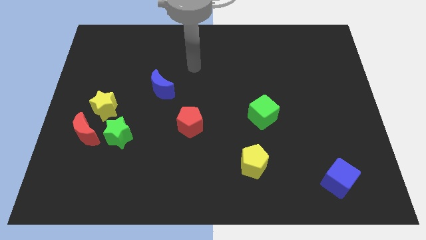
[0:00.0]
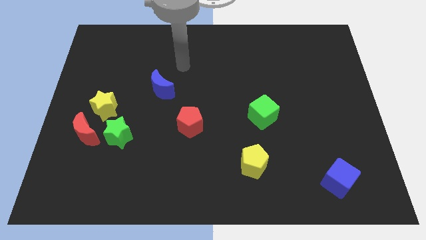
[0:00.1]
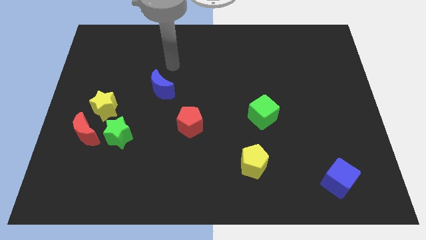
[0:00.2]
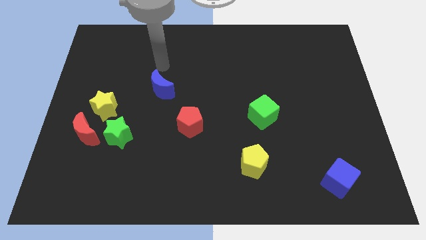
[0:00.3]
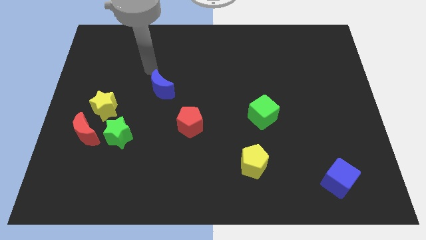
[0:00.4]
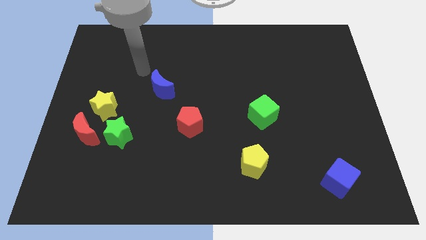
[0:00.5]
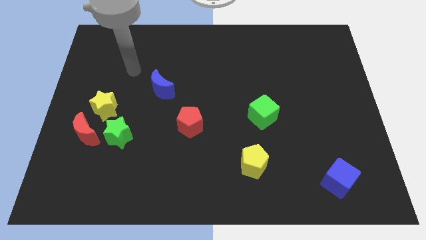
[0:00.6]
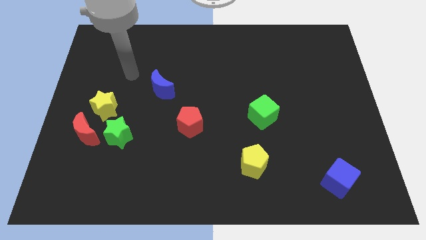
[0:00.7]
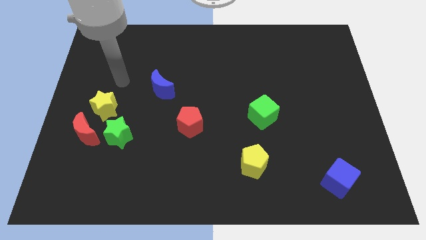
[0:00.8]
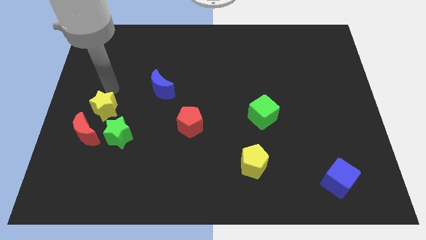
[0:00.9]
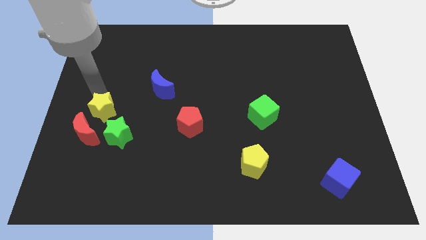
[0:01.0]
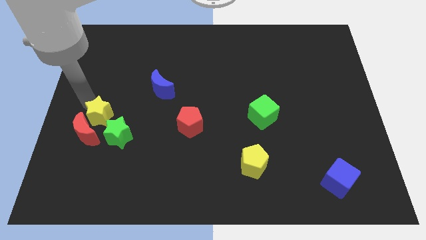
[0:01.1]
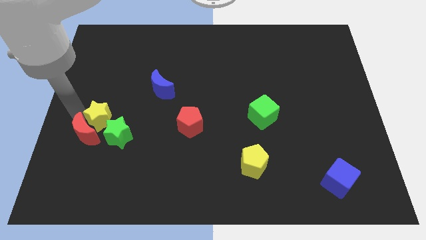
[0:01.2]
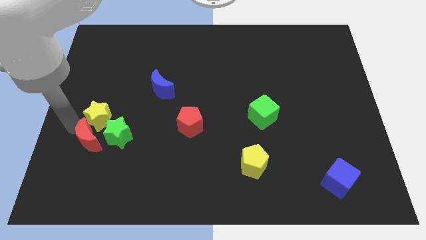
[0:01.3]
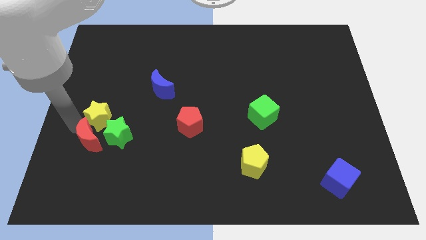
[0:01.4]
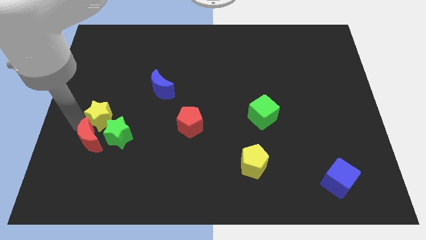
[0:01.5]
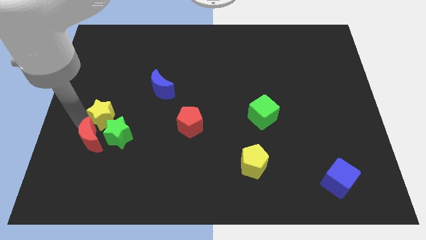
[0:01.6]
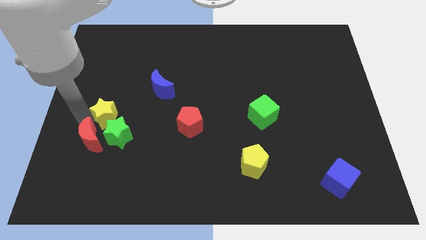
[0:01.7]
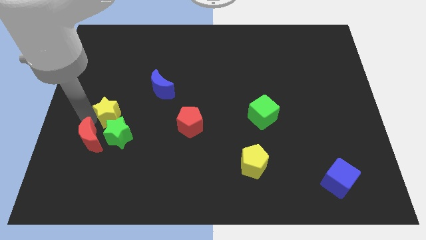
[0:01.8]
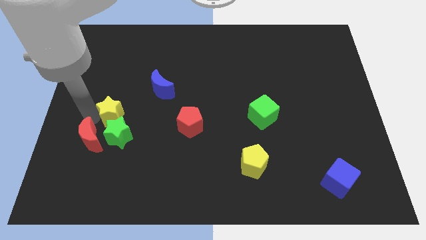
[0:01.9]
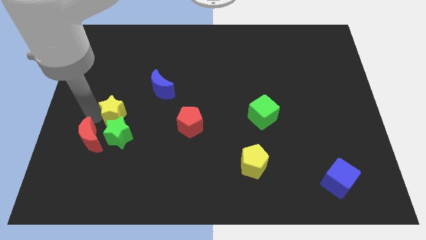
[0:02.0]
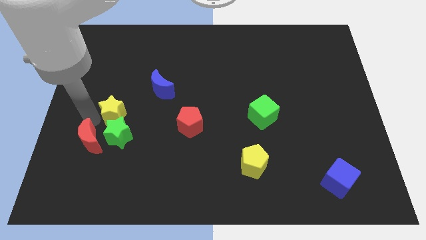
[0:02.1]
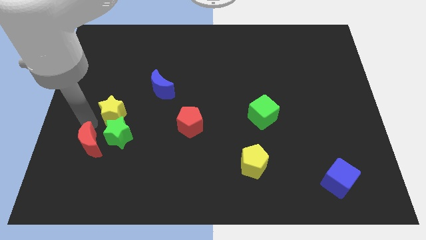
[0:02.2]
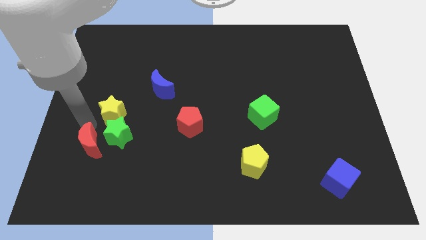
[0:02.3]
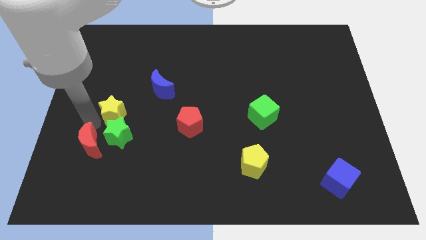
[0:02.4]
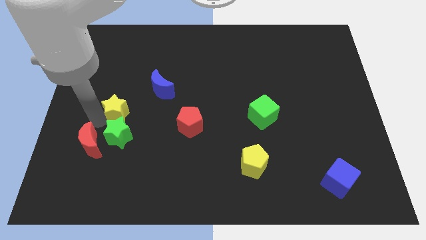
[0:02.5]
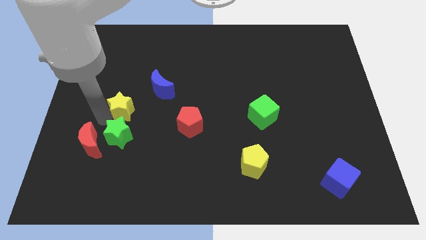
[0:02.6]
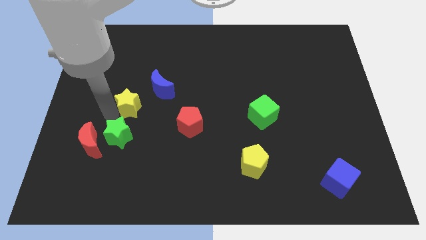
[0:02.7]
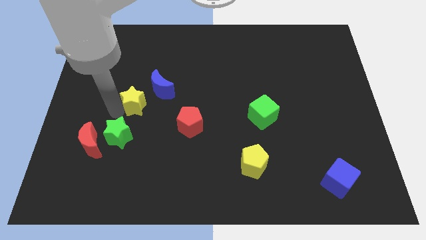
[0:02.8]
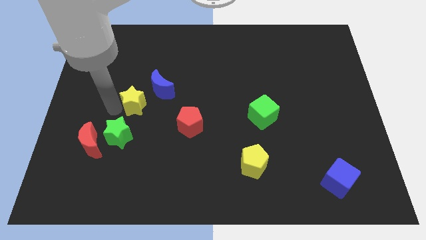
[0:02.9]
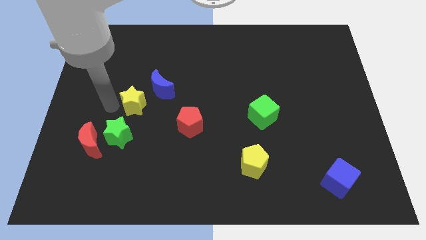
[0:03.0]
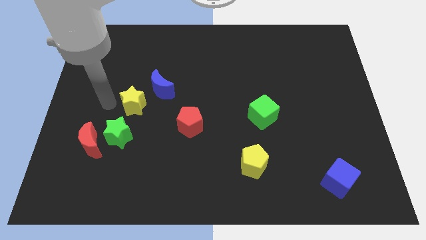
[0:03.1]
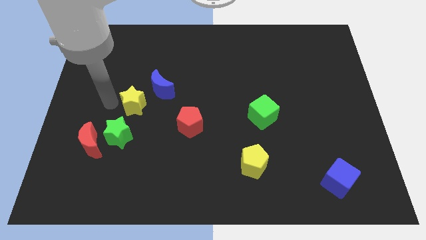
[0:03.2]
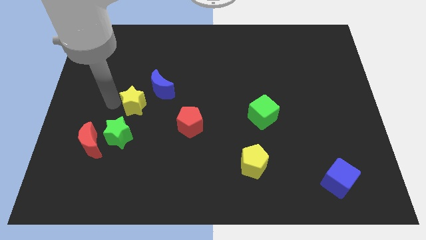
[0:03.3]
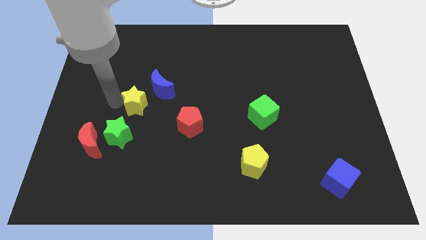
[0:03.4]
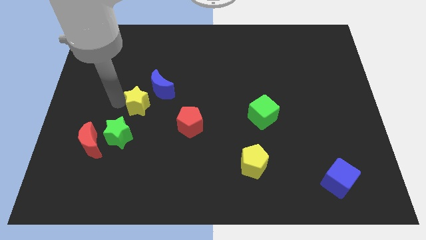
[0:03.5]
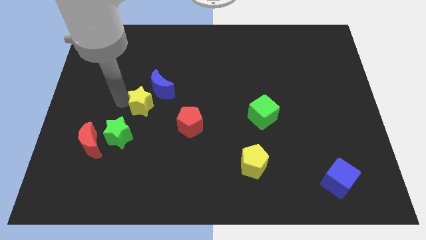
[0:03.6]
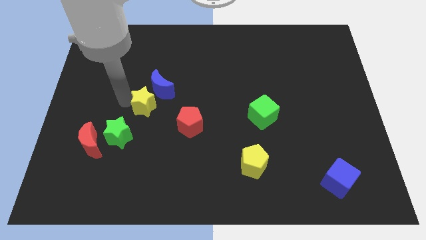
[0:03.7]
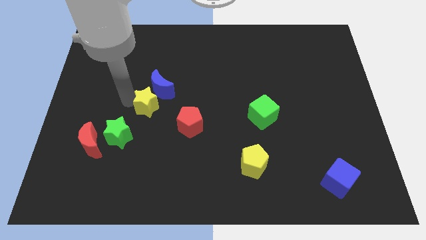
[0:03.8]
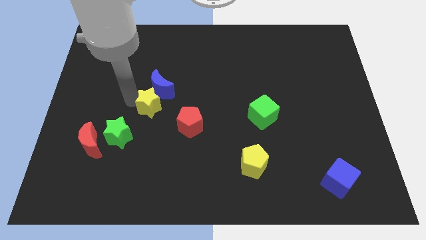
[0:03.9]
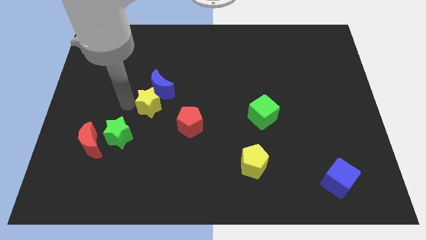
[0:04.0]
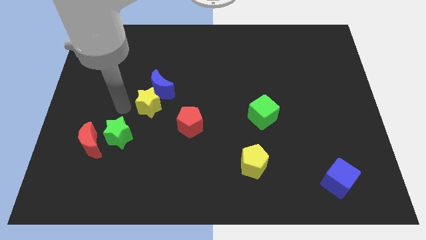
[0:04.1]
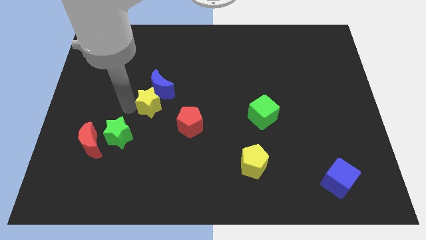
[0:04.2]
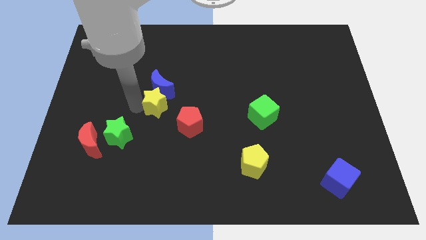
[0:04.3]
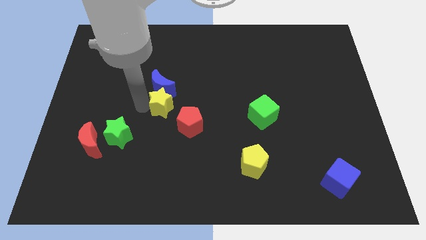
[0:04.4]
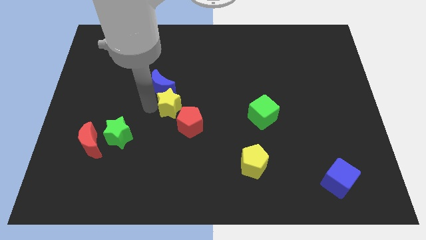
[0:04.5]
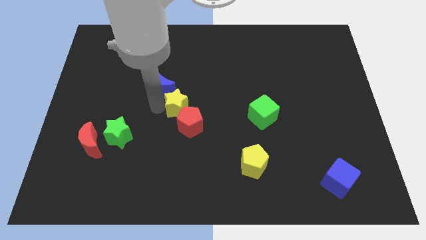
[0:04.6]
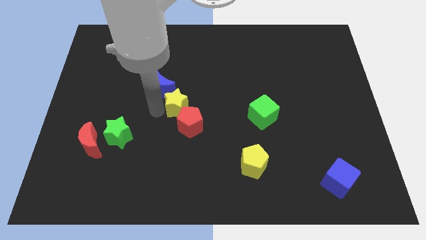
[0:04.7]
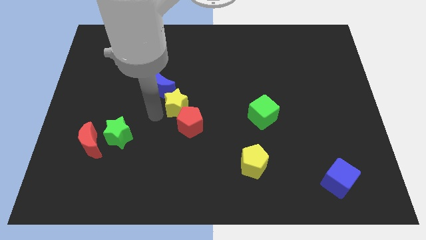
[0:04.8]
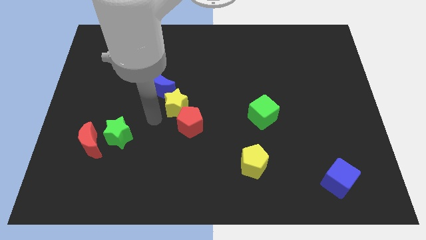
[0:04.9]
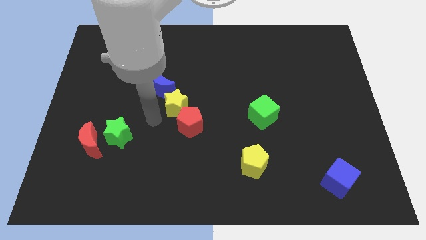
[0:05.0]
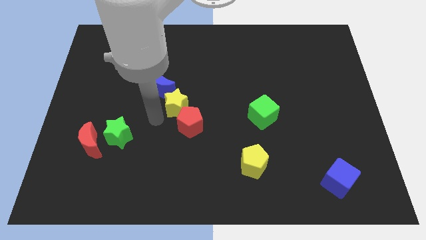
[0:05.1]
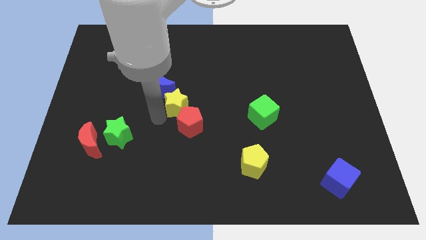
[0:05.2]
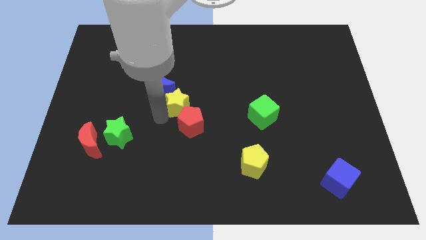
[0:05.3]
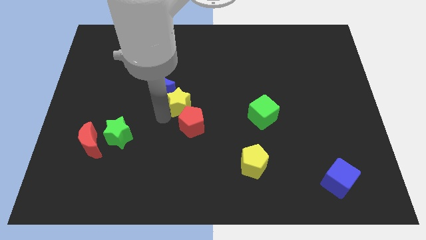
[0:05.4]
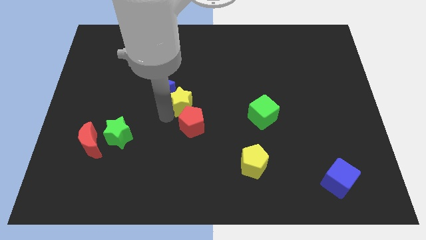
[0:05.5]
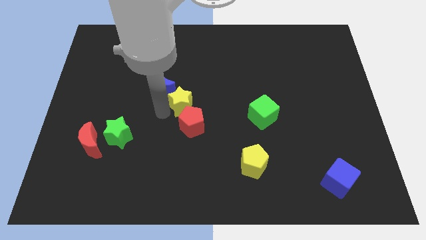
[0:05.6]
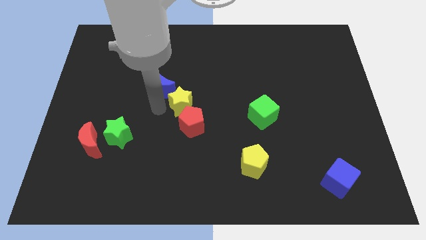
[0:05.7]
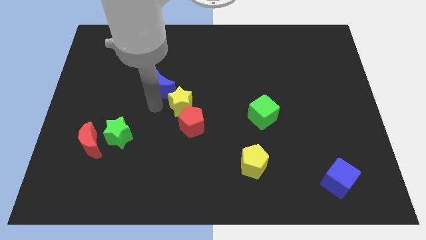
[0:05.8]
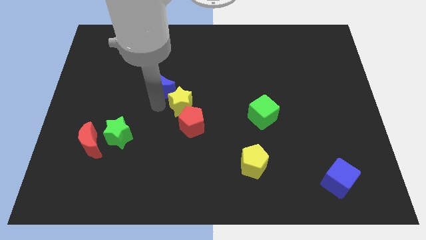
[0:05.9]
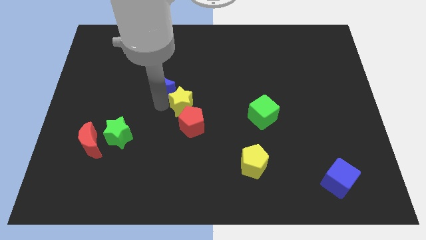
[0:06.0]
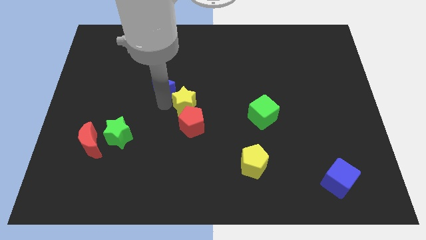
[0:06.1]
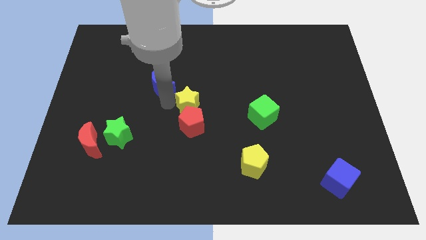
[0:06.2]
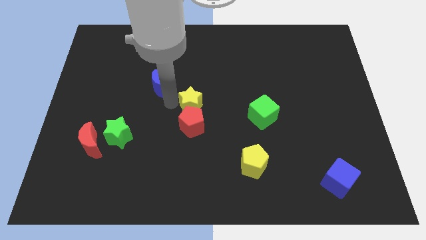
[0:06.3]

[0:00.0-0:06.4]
push the yellow star right

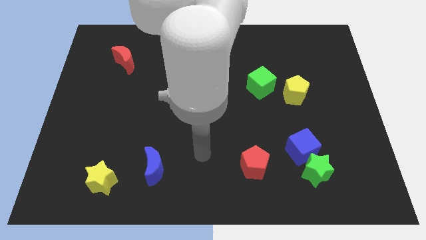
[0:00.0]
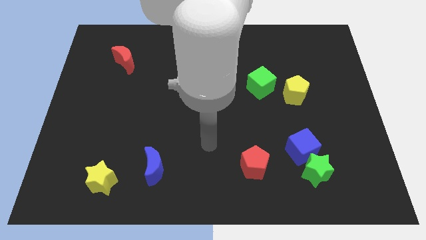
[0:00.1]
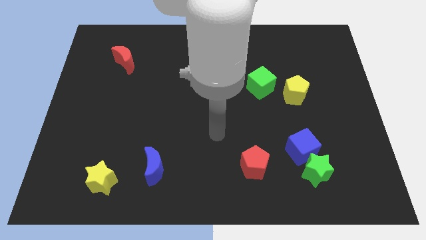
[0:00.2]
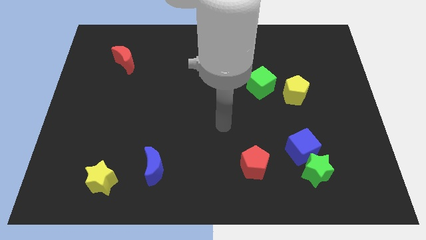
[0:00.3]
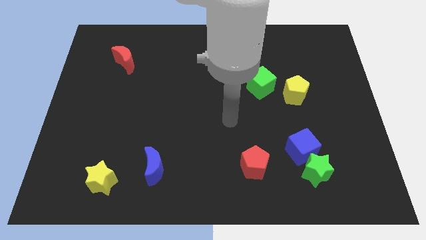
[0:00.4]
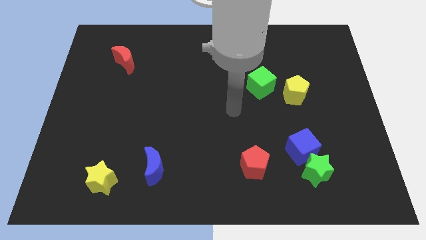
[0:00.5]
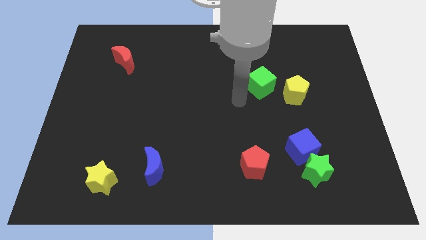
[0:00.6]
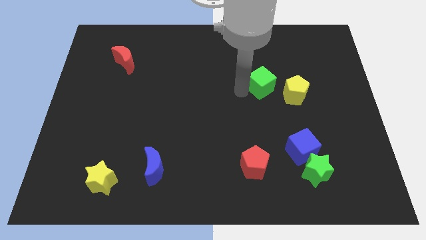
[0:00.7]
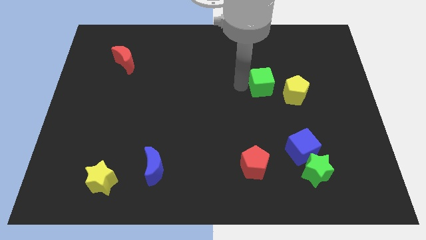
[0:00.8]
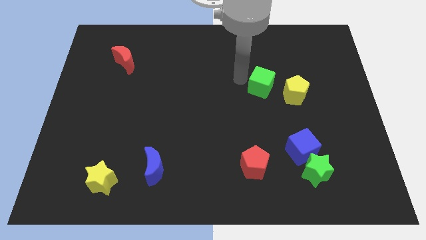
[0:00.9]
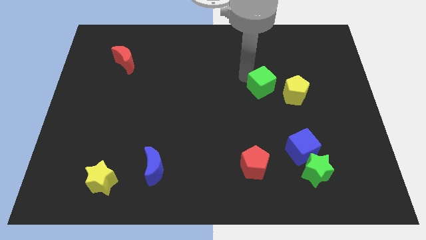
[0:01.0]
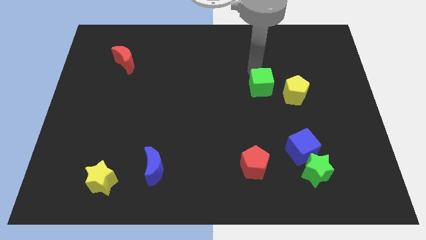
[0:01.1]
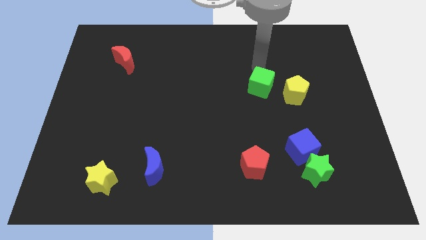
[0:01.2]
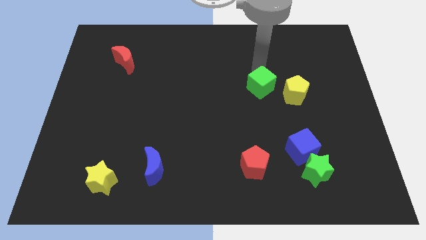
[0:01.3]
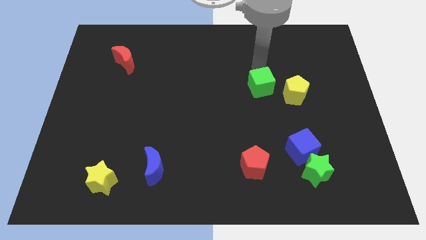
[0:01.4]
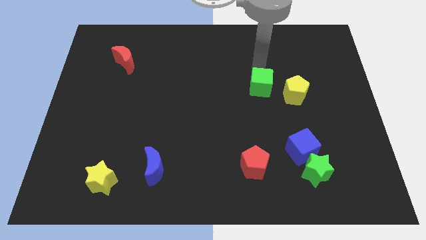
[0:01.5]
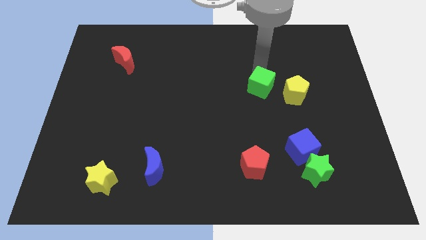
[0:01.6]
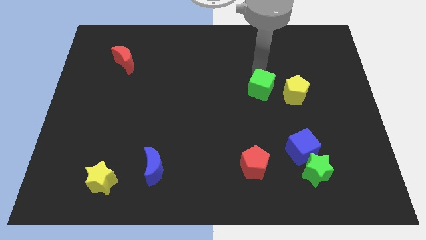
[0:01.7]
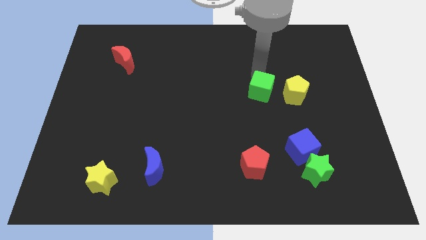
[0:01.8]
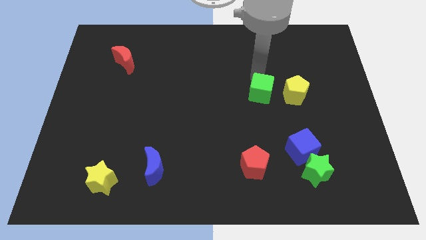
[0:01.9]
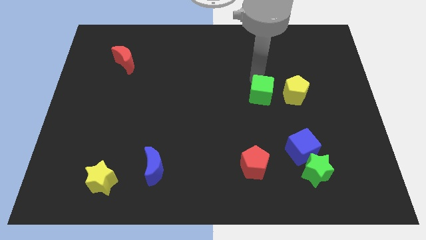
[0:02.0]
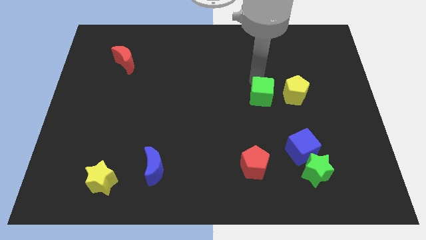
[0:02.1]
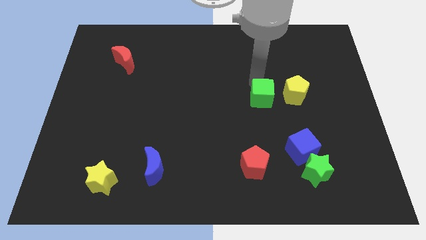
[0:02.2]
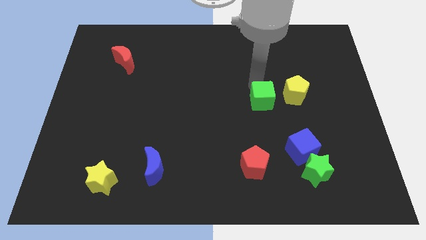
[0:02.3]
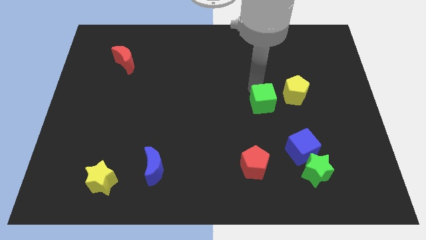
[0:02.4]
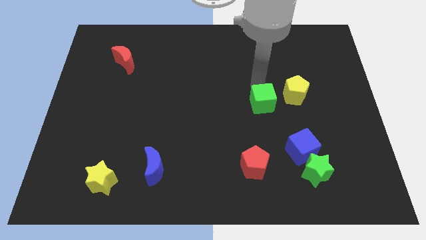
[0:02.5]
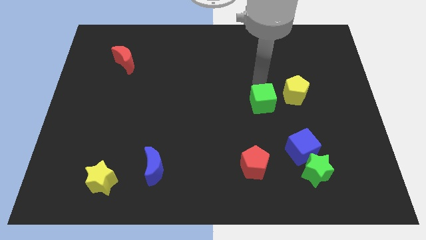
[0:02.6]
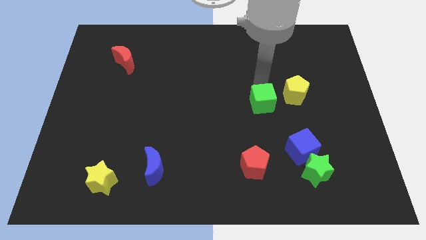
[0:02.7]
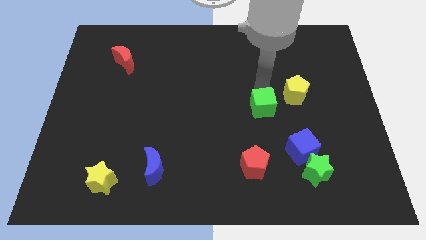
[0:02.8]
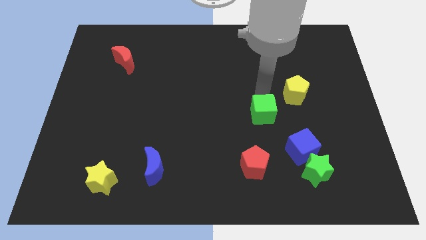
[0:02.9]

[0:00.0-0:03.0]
push the green cube down slightly
